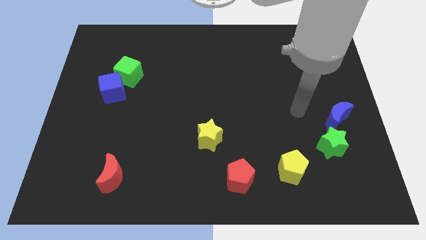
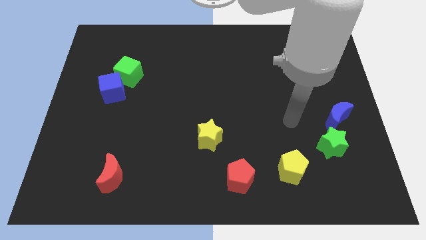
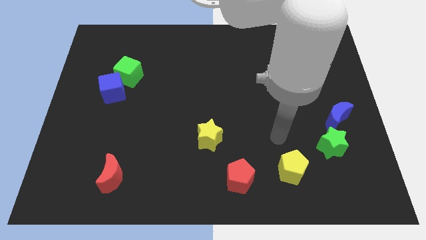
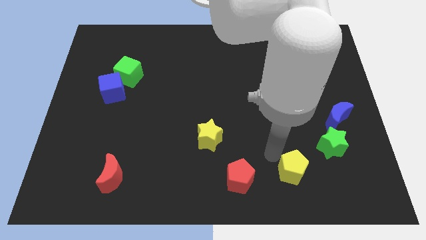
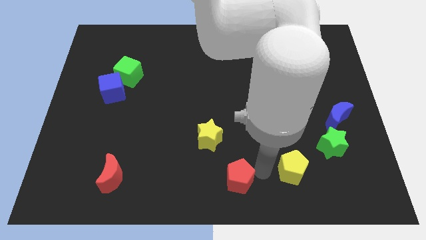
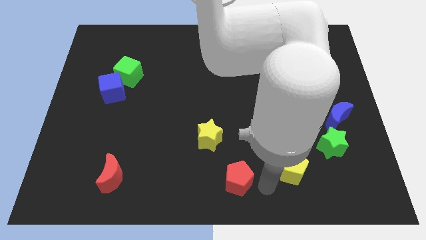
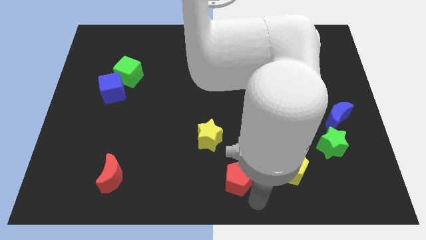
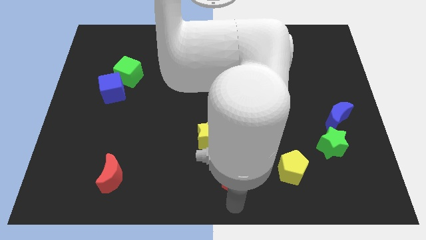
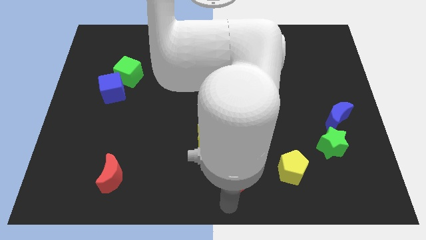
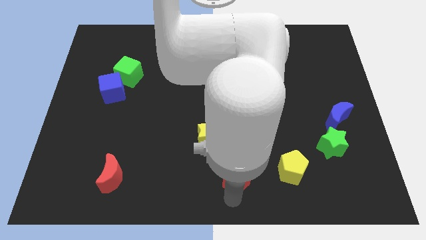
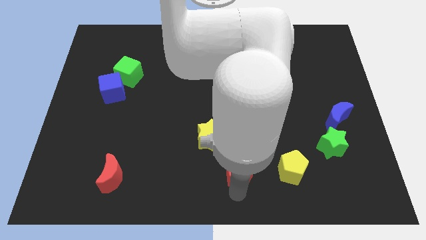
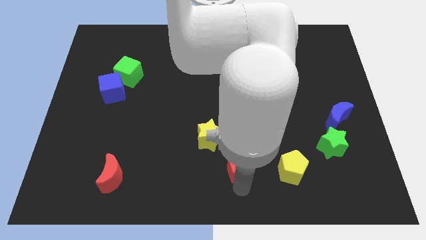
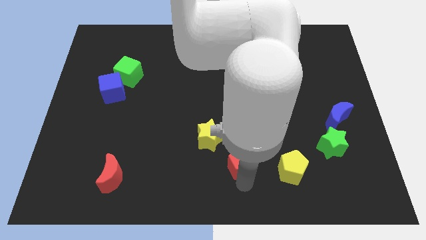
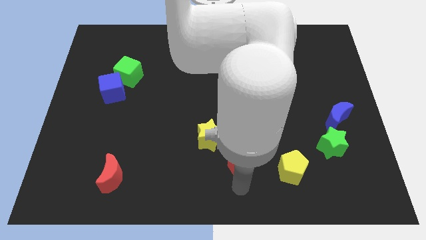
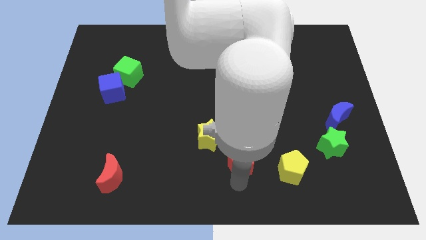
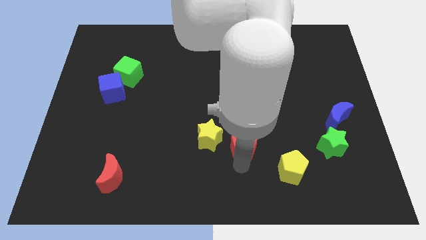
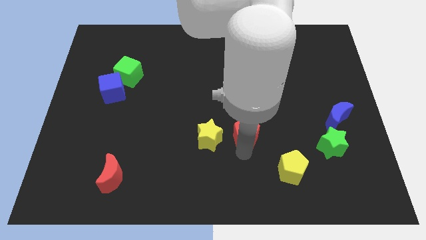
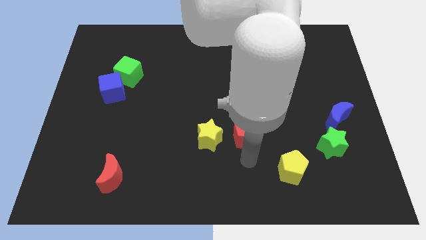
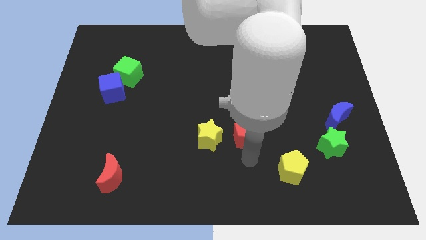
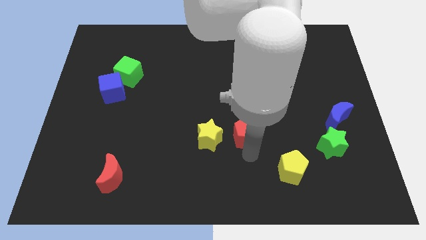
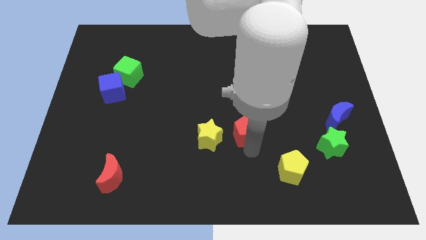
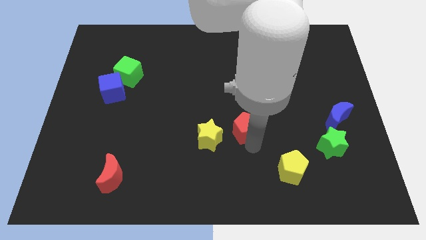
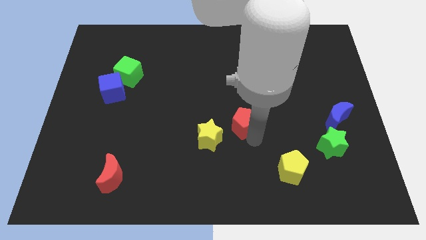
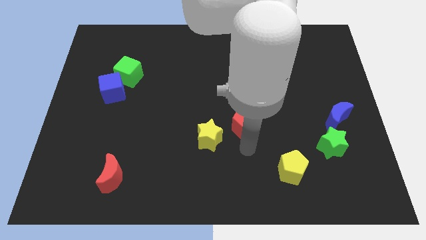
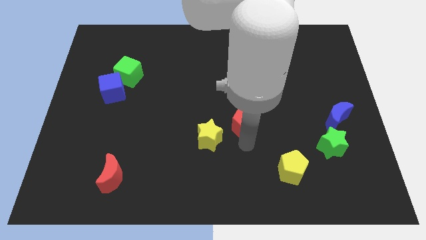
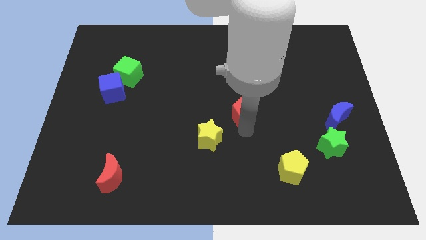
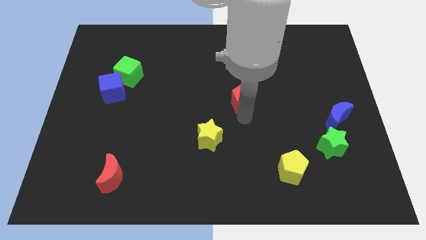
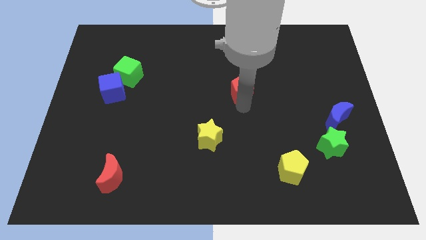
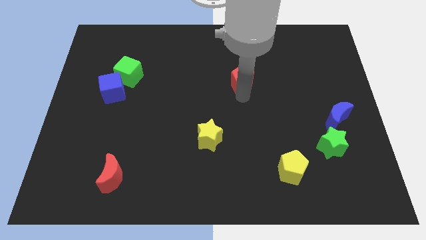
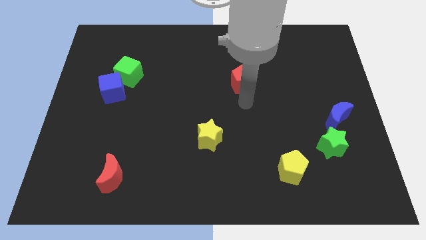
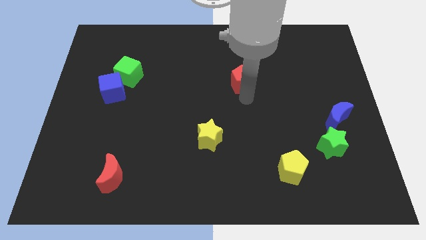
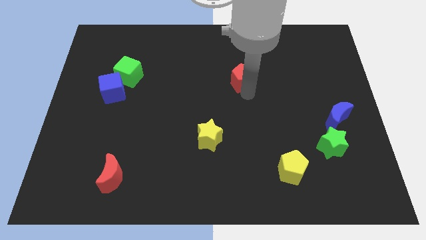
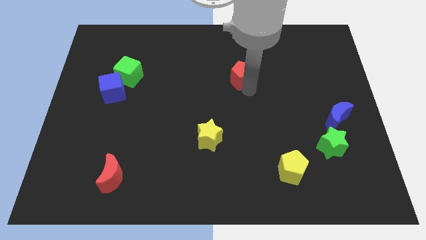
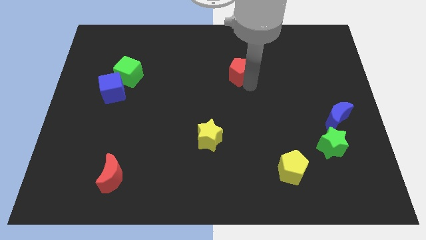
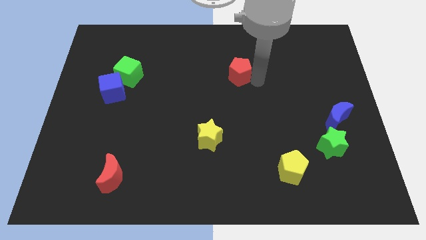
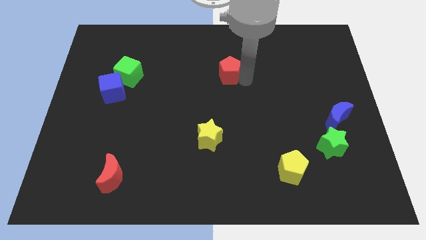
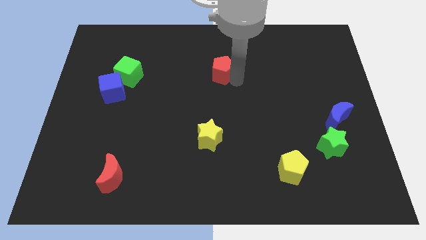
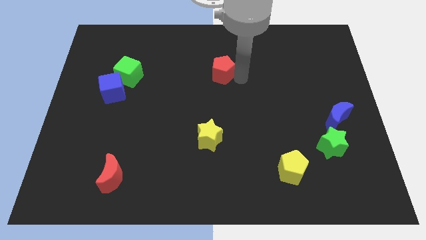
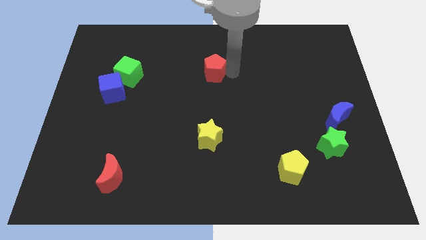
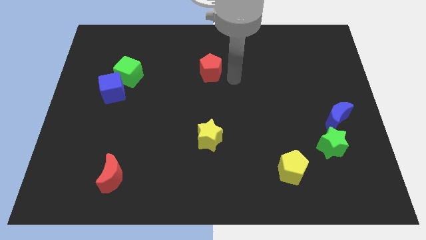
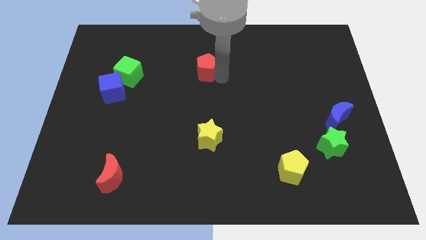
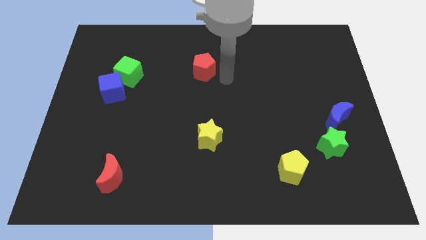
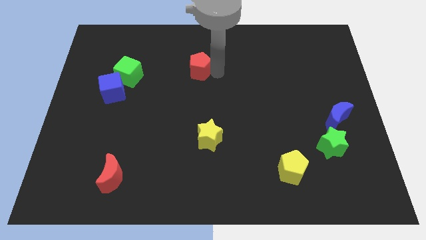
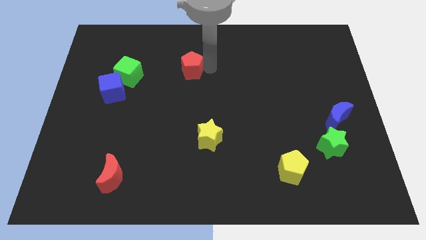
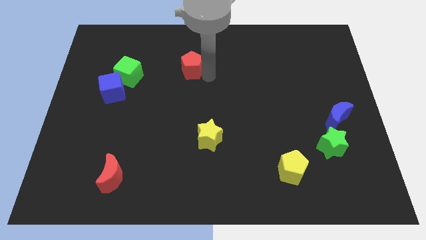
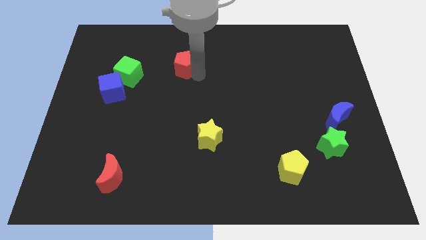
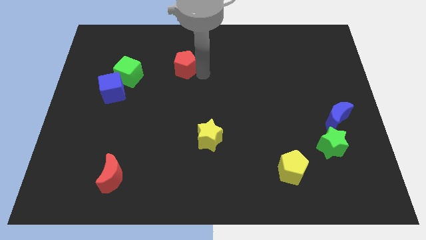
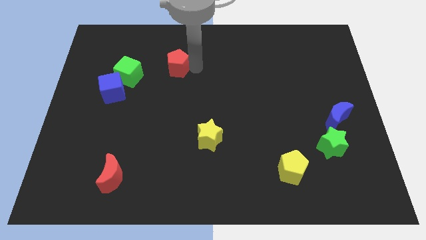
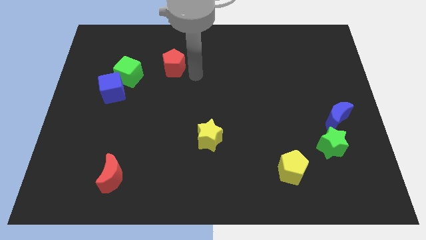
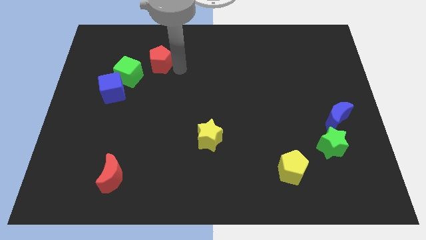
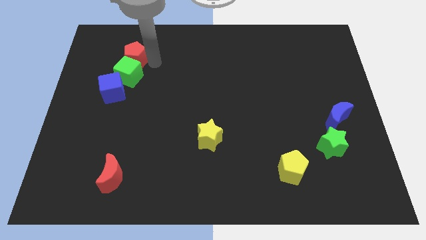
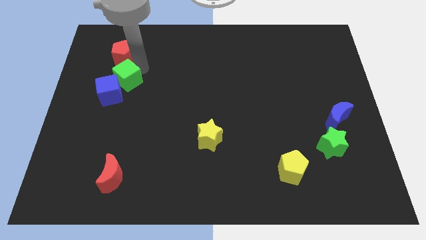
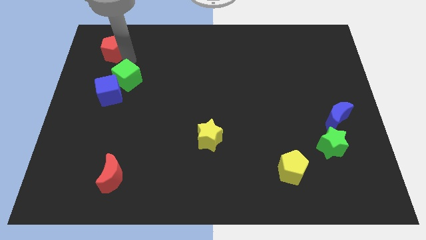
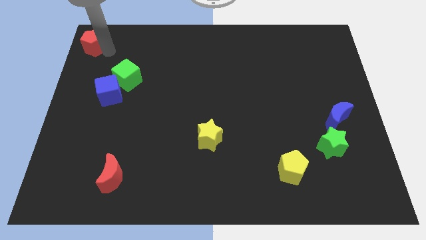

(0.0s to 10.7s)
push the red pentagon to the upper left corner
